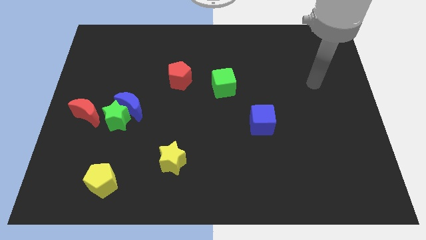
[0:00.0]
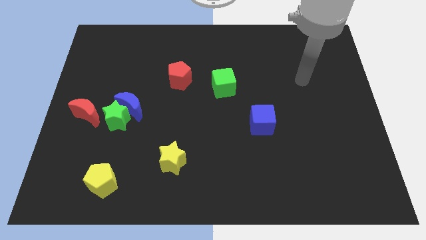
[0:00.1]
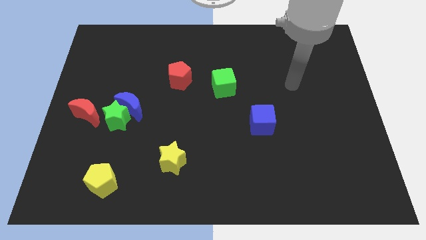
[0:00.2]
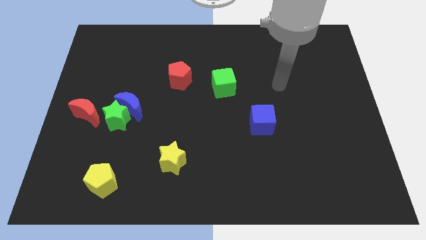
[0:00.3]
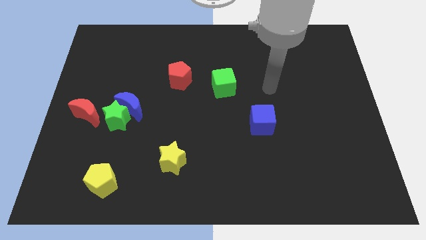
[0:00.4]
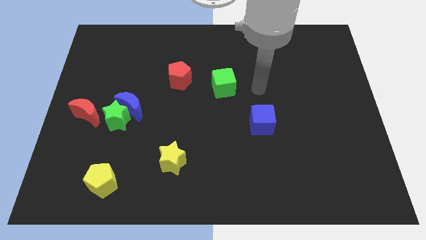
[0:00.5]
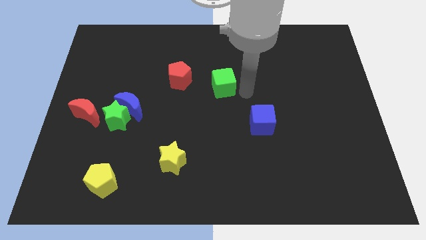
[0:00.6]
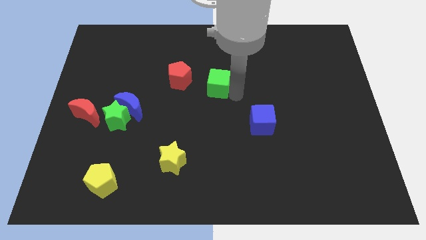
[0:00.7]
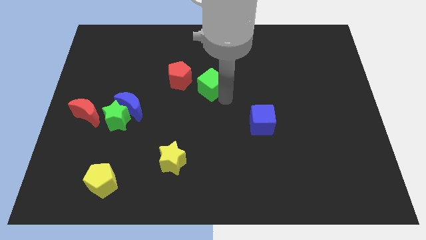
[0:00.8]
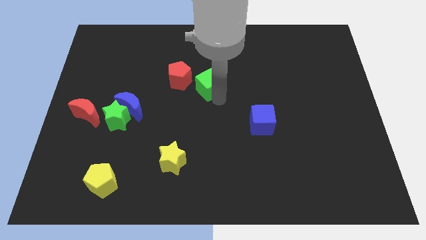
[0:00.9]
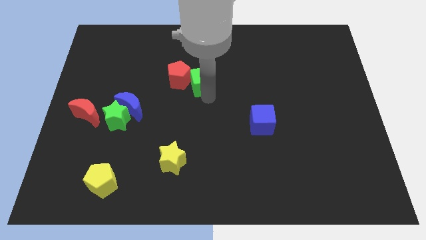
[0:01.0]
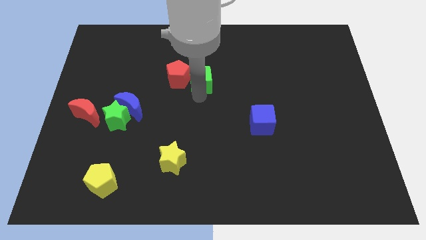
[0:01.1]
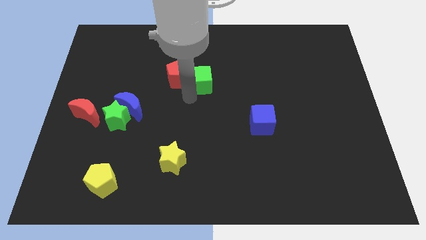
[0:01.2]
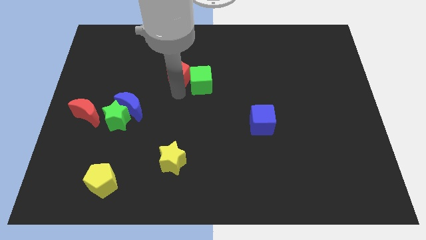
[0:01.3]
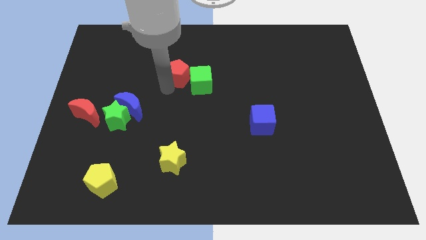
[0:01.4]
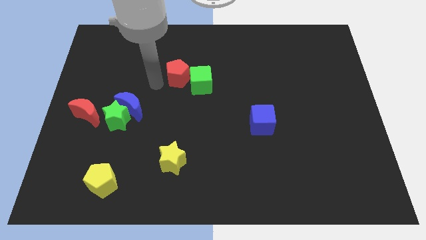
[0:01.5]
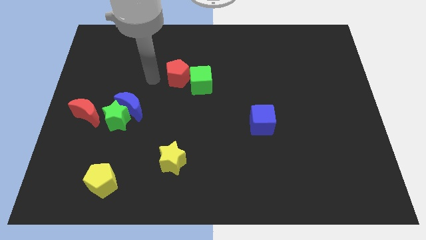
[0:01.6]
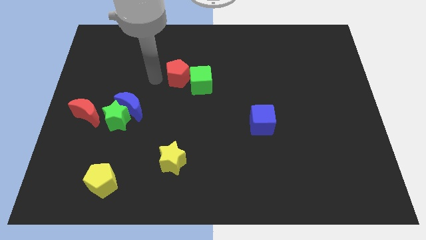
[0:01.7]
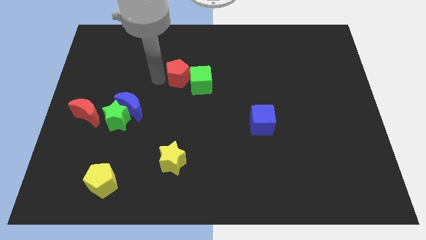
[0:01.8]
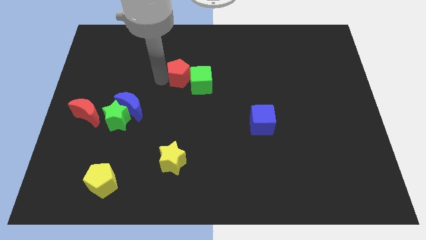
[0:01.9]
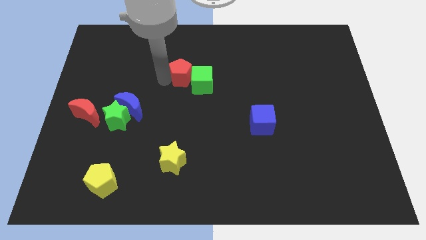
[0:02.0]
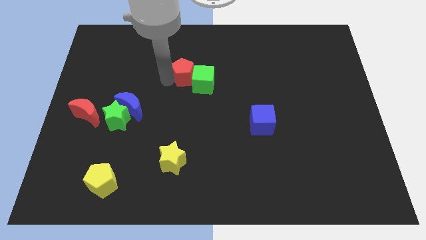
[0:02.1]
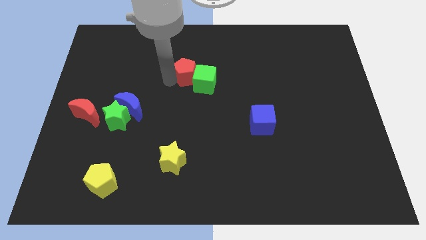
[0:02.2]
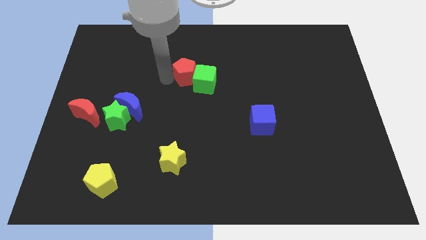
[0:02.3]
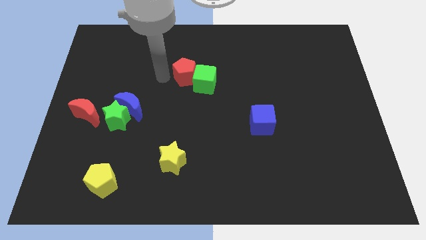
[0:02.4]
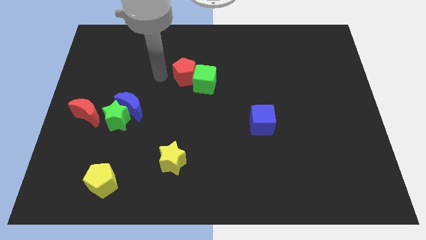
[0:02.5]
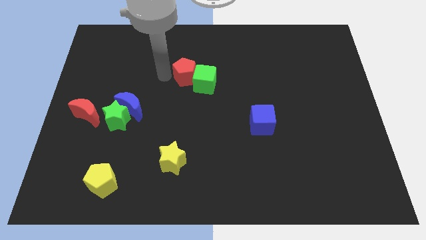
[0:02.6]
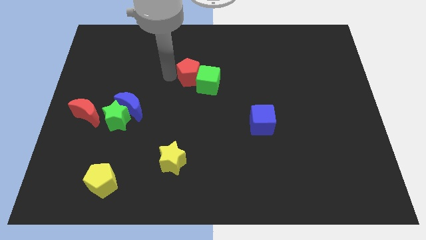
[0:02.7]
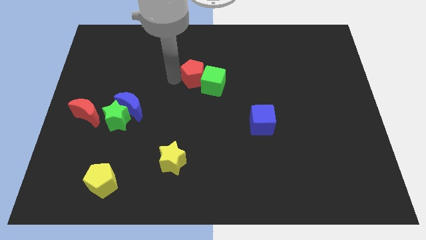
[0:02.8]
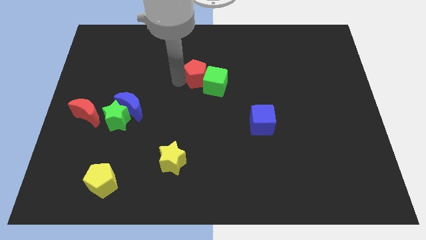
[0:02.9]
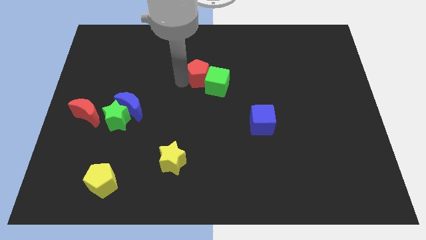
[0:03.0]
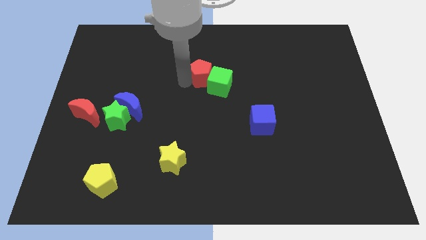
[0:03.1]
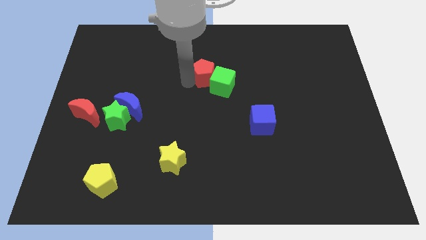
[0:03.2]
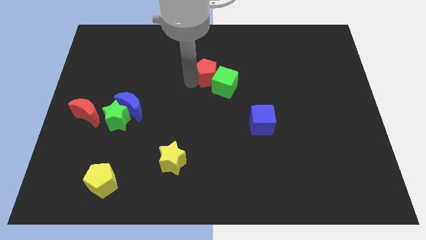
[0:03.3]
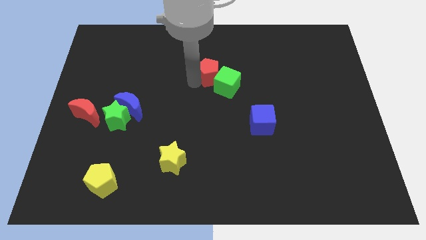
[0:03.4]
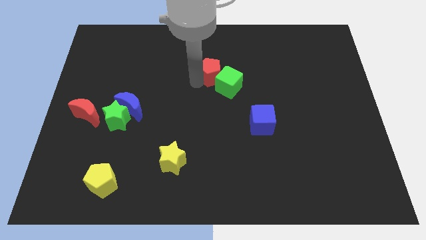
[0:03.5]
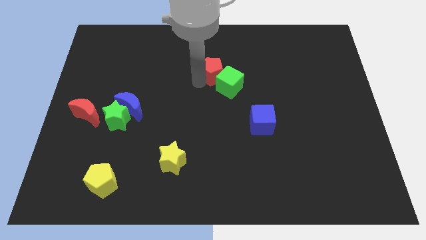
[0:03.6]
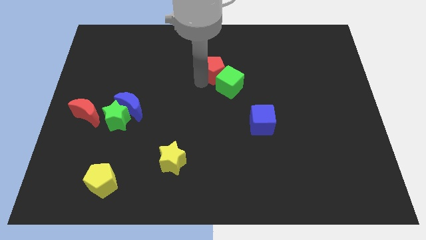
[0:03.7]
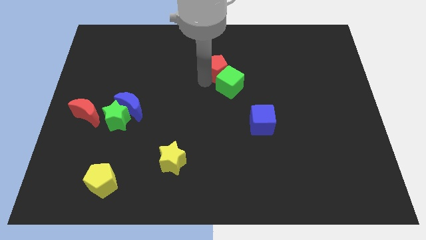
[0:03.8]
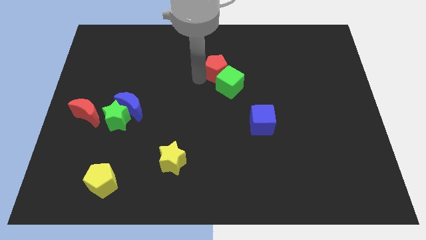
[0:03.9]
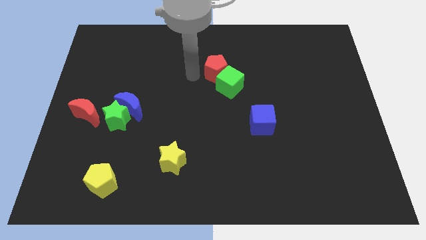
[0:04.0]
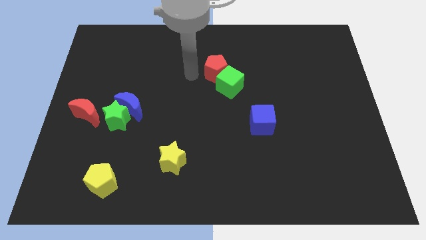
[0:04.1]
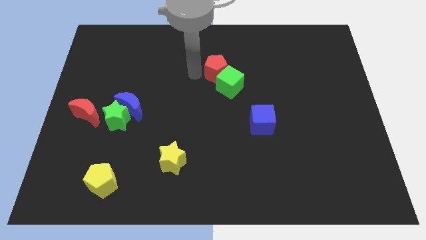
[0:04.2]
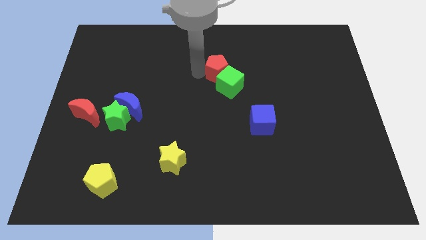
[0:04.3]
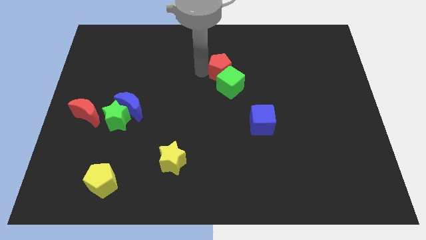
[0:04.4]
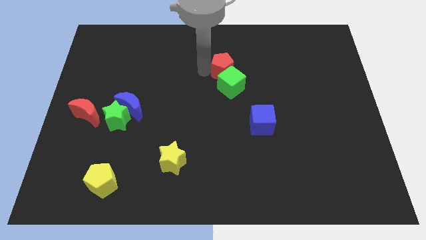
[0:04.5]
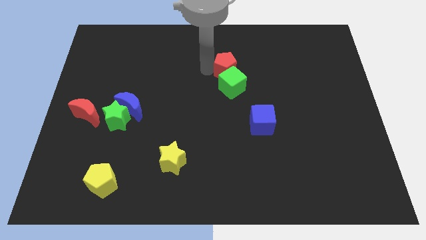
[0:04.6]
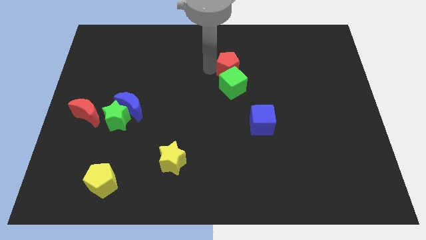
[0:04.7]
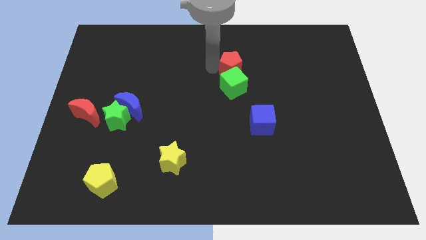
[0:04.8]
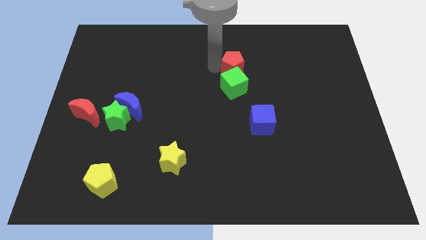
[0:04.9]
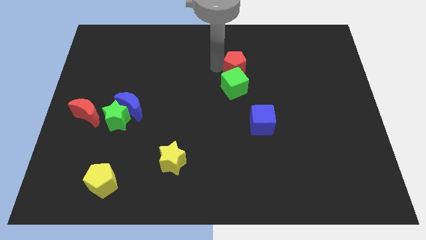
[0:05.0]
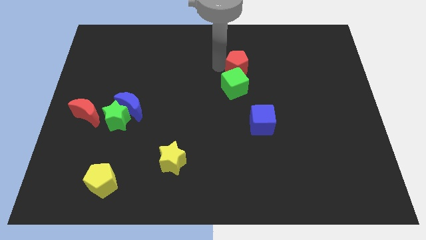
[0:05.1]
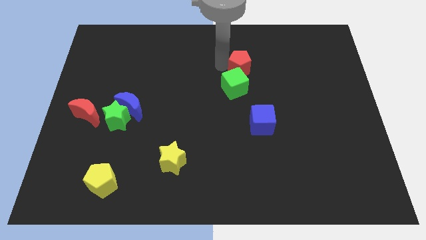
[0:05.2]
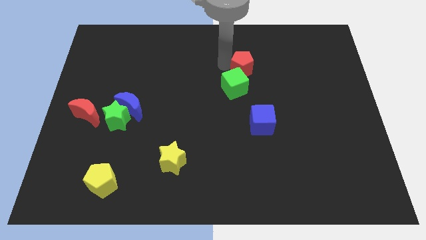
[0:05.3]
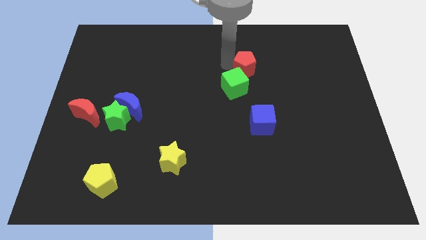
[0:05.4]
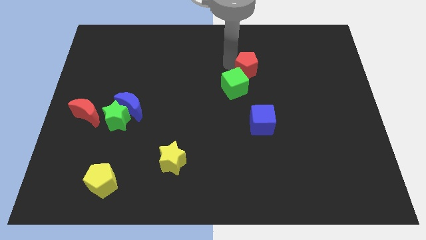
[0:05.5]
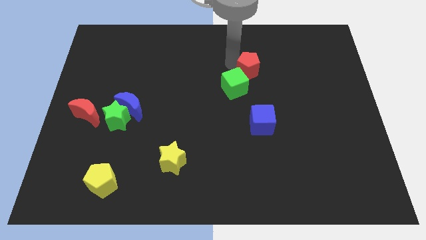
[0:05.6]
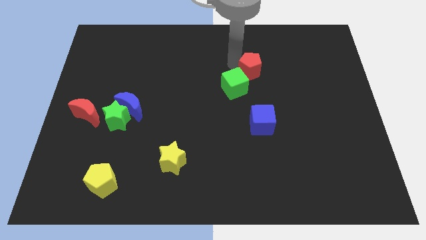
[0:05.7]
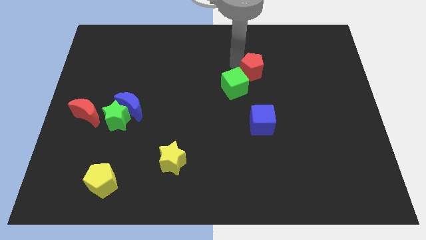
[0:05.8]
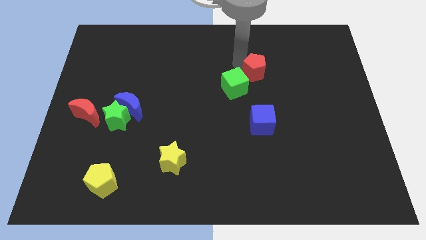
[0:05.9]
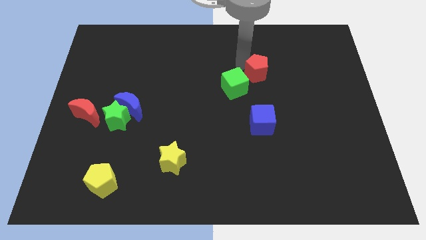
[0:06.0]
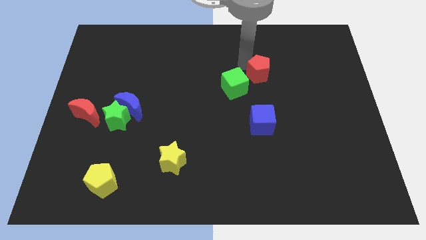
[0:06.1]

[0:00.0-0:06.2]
slide the red pentagon right

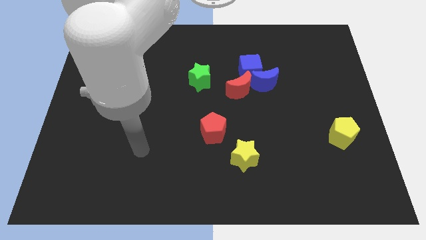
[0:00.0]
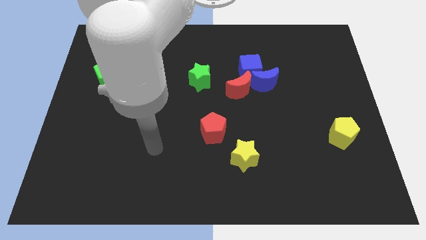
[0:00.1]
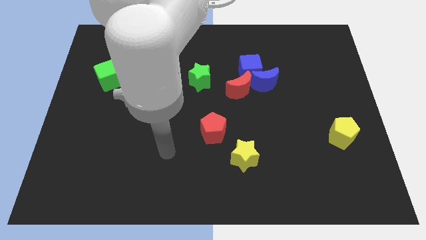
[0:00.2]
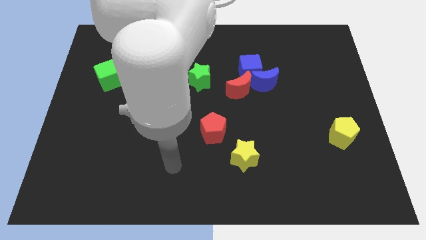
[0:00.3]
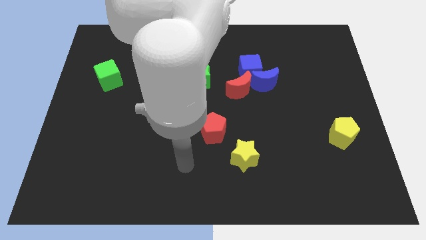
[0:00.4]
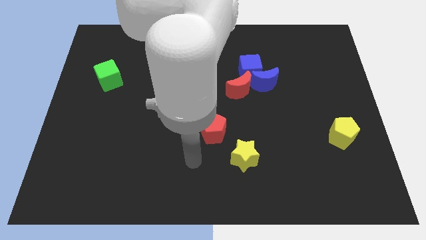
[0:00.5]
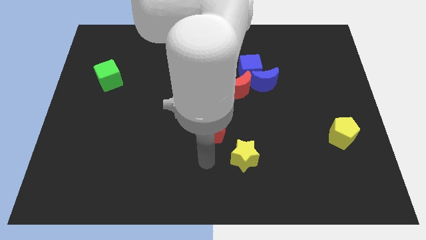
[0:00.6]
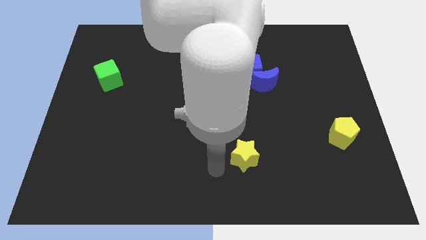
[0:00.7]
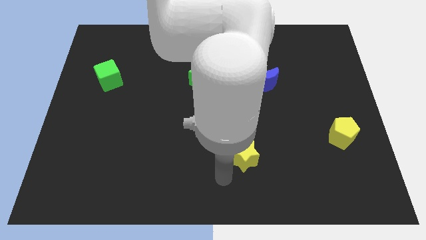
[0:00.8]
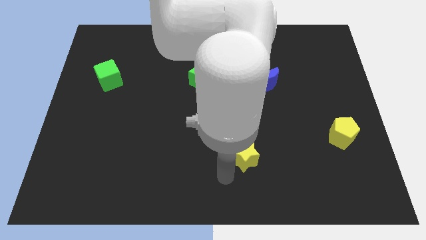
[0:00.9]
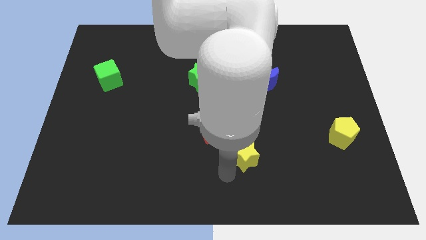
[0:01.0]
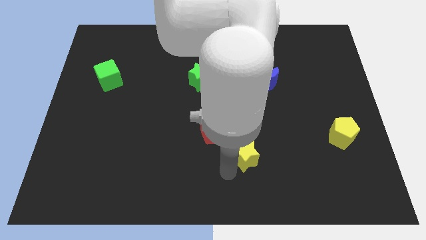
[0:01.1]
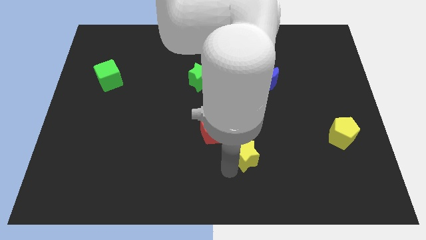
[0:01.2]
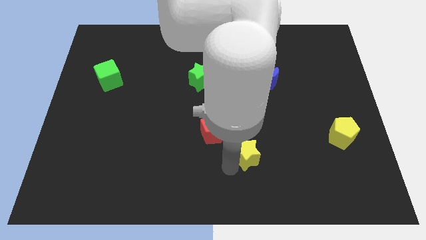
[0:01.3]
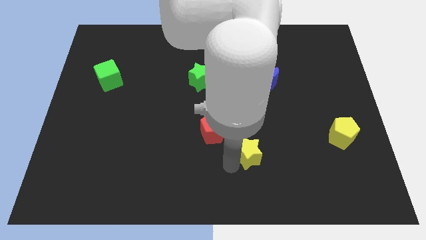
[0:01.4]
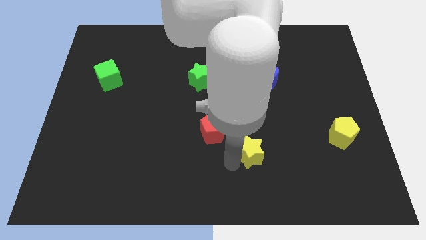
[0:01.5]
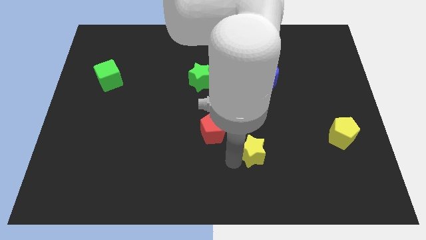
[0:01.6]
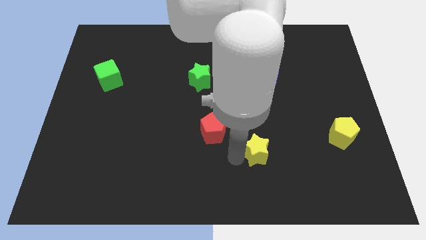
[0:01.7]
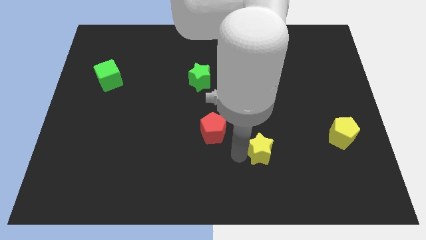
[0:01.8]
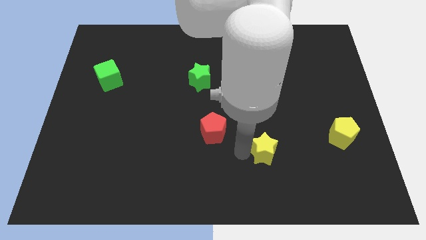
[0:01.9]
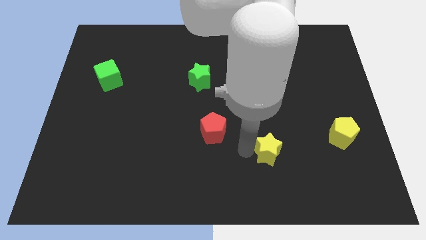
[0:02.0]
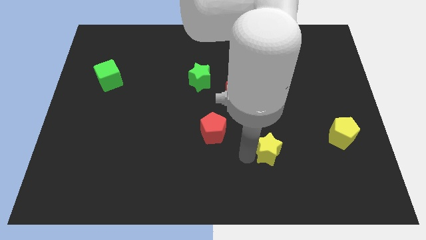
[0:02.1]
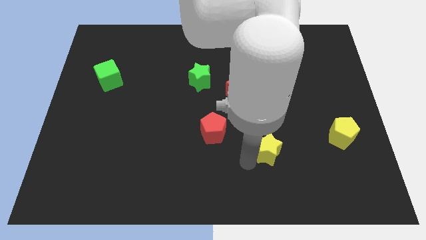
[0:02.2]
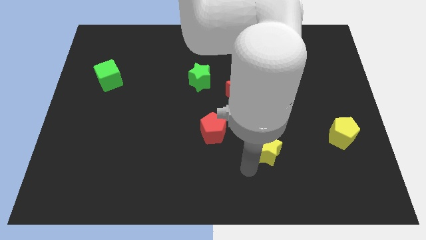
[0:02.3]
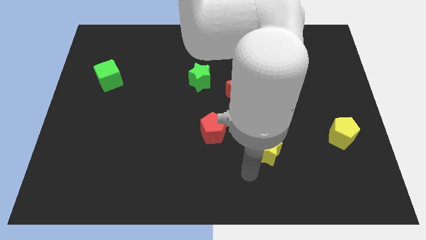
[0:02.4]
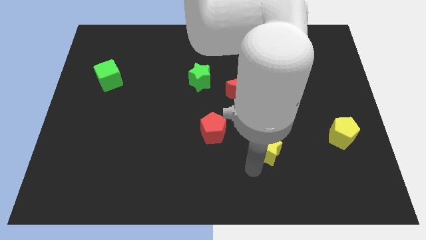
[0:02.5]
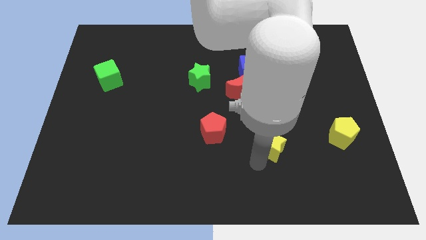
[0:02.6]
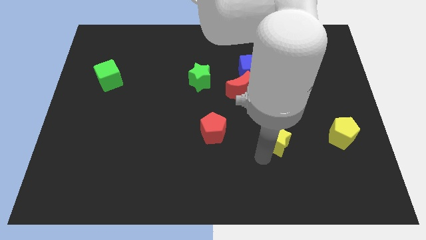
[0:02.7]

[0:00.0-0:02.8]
slide the yellow star a little upwards and right
